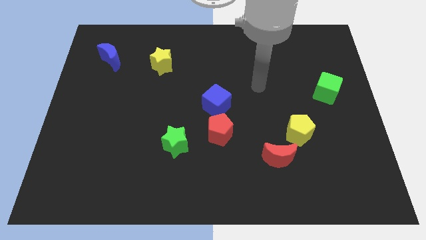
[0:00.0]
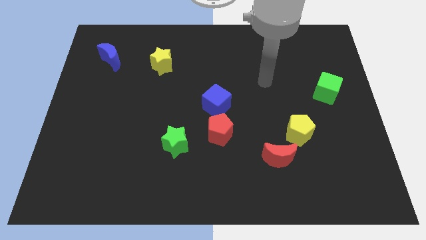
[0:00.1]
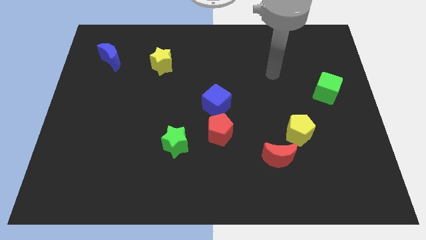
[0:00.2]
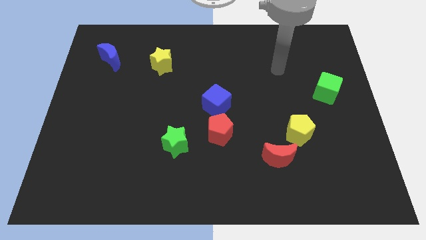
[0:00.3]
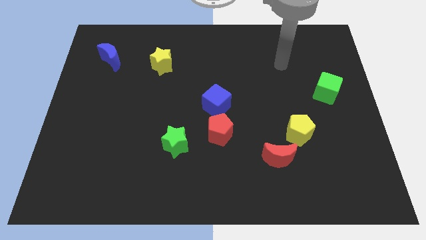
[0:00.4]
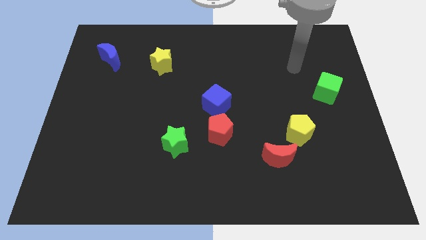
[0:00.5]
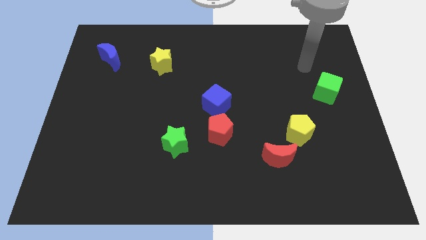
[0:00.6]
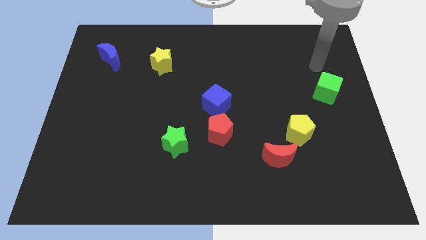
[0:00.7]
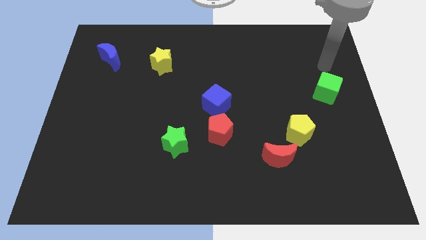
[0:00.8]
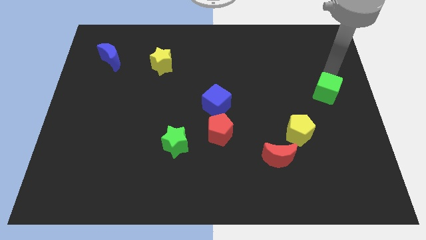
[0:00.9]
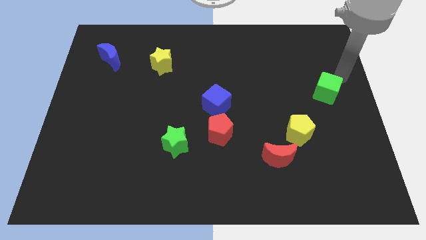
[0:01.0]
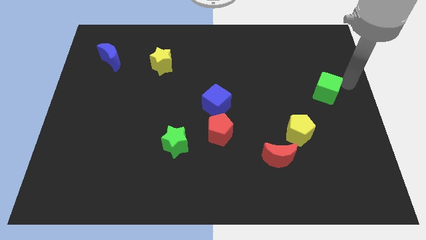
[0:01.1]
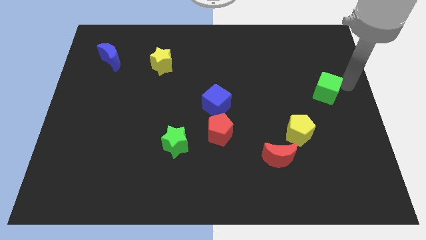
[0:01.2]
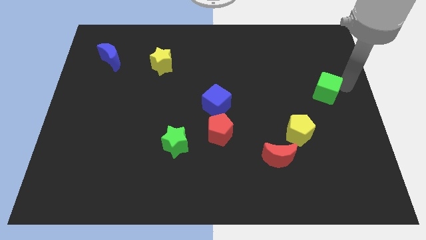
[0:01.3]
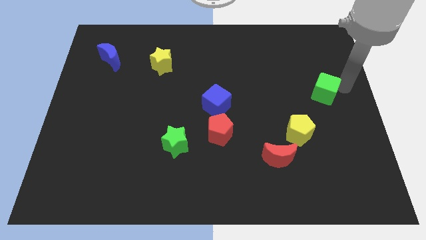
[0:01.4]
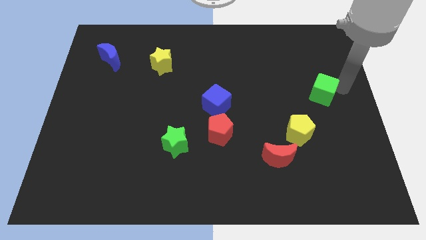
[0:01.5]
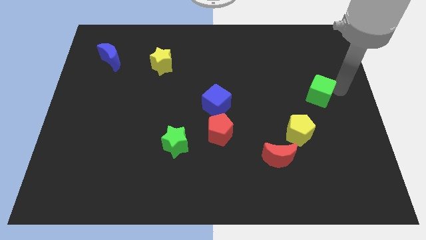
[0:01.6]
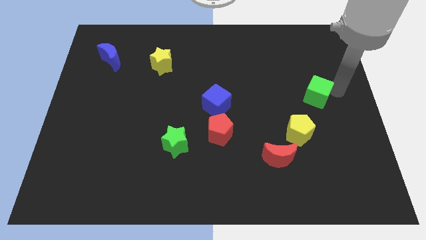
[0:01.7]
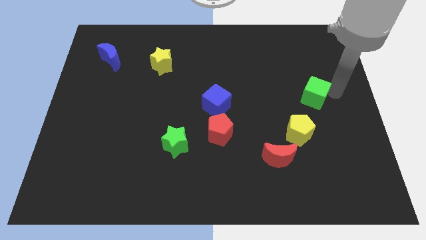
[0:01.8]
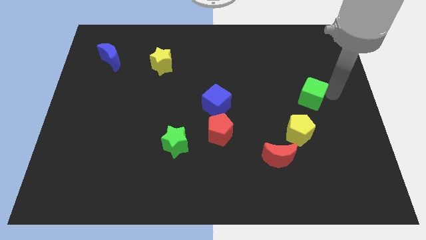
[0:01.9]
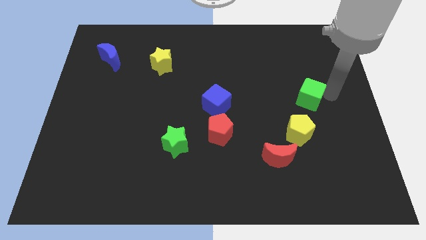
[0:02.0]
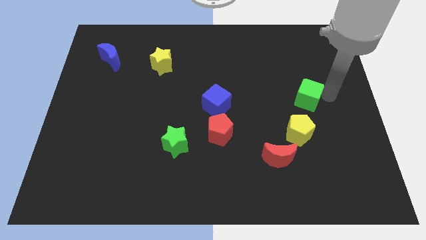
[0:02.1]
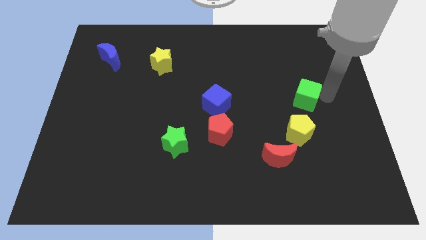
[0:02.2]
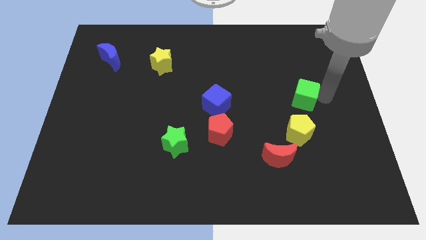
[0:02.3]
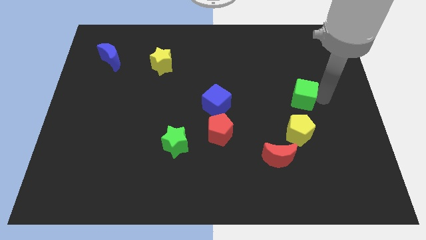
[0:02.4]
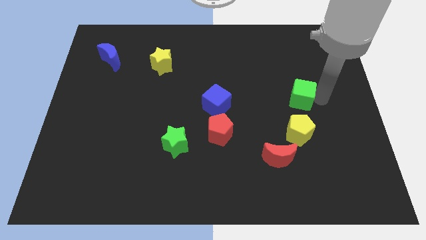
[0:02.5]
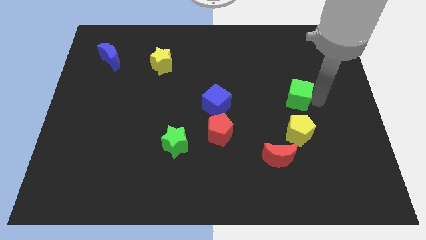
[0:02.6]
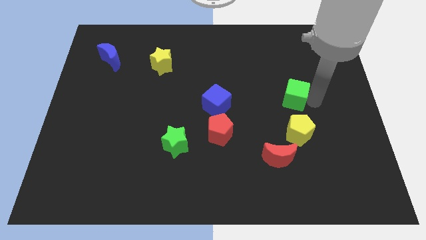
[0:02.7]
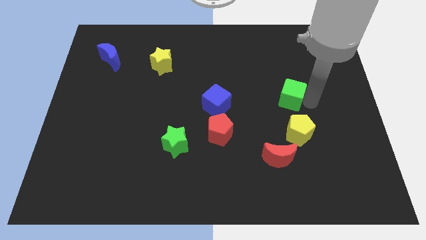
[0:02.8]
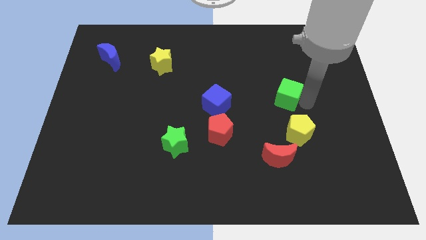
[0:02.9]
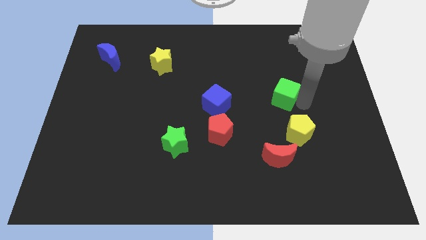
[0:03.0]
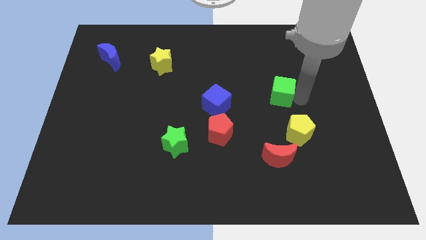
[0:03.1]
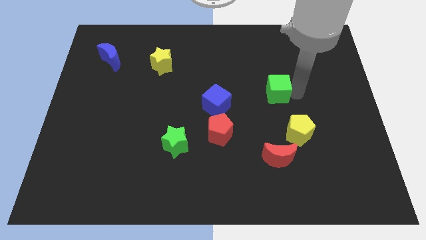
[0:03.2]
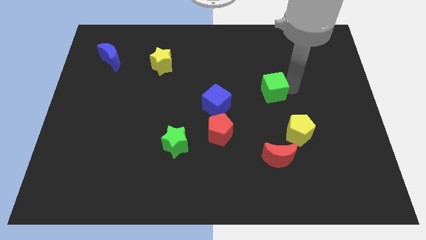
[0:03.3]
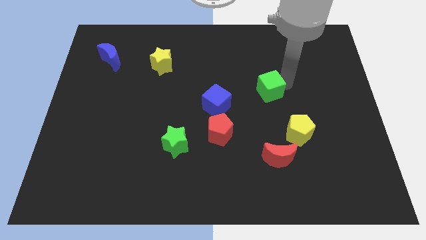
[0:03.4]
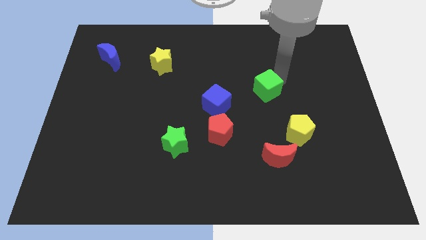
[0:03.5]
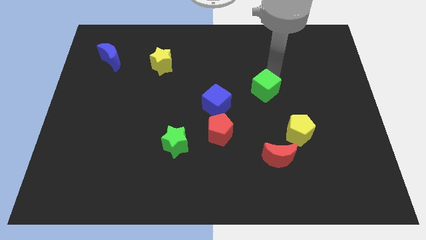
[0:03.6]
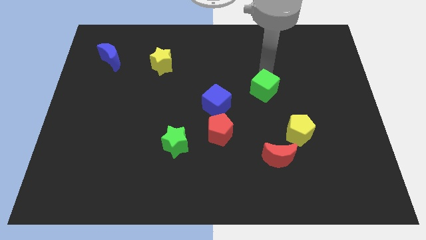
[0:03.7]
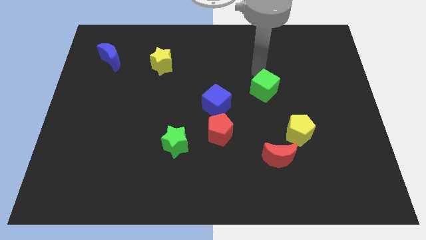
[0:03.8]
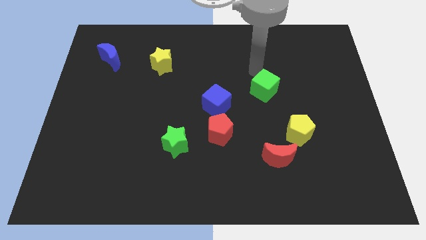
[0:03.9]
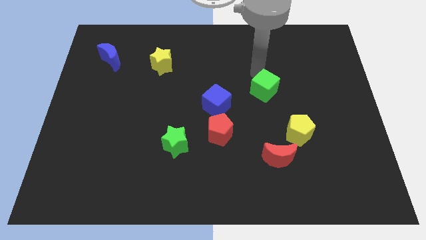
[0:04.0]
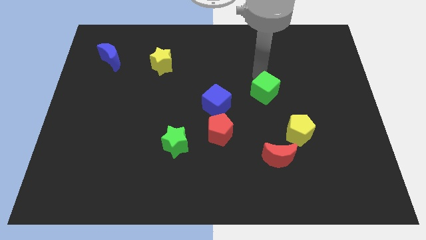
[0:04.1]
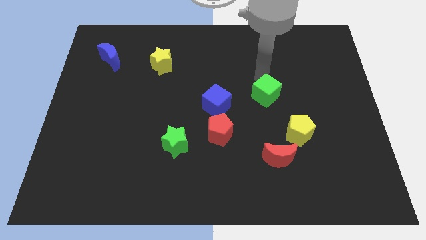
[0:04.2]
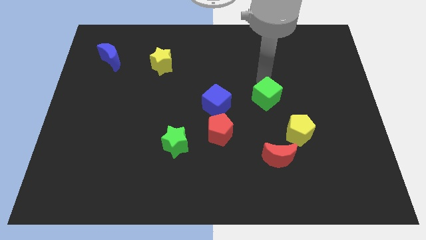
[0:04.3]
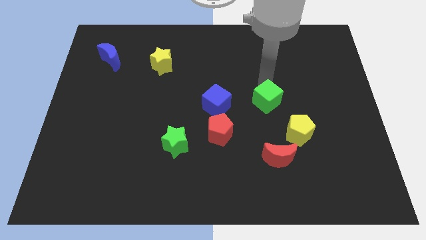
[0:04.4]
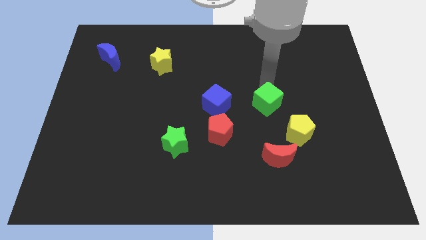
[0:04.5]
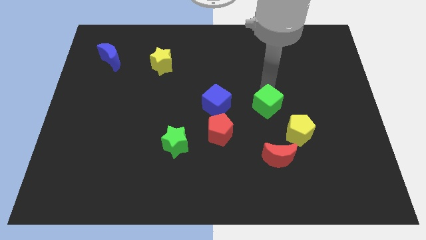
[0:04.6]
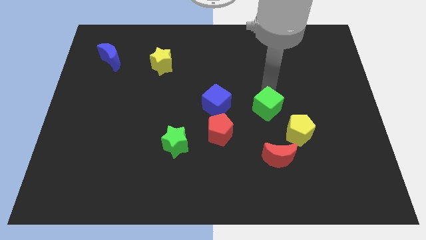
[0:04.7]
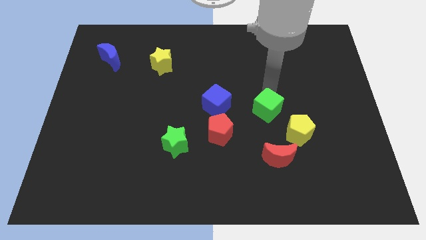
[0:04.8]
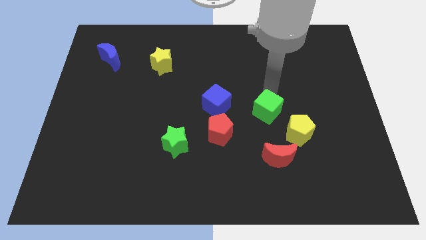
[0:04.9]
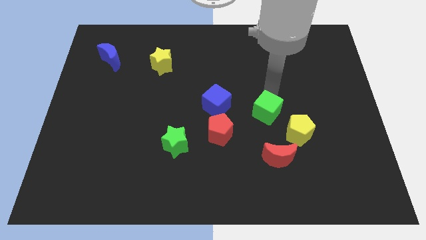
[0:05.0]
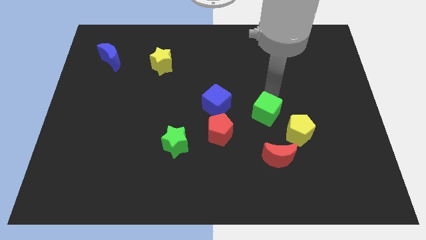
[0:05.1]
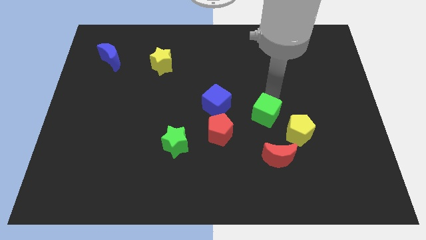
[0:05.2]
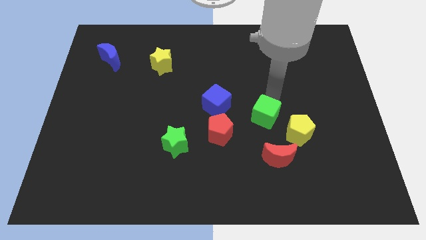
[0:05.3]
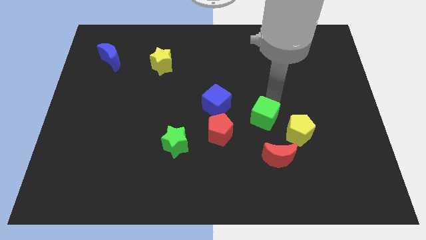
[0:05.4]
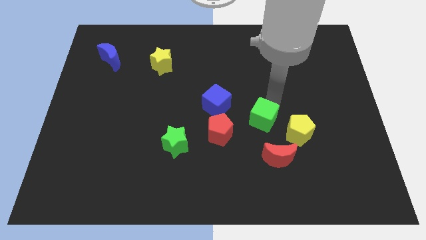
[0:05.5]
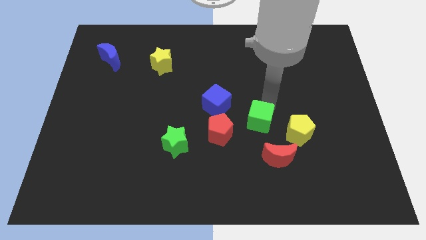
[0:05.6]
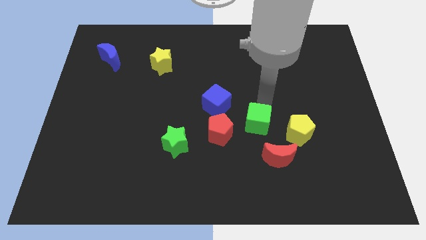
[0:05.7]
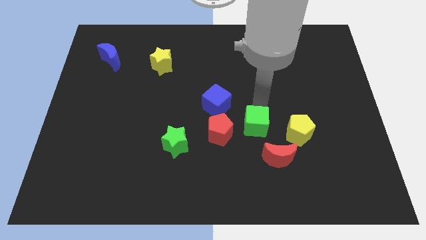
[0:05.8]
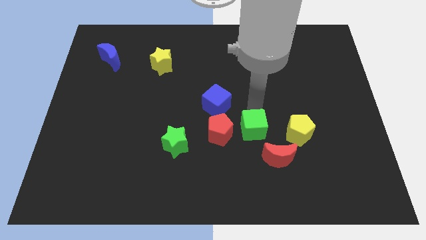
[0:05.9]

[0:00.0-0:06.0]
move the green cube diagonally down and left

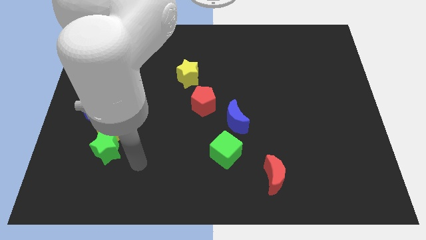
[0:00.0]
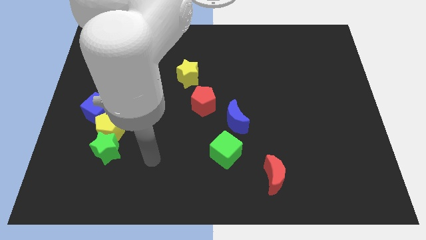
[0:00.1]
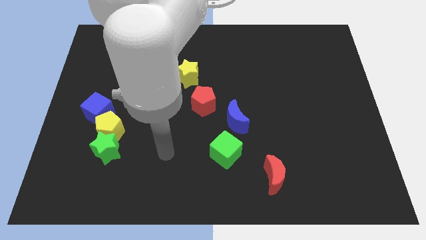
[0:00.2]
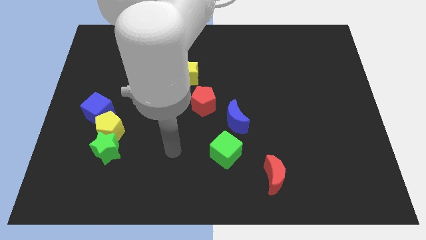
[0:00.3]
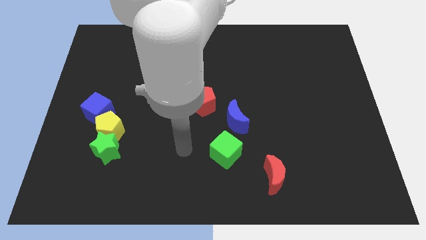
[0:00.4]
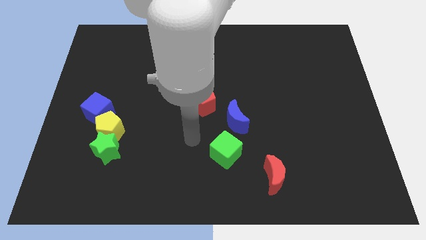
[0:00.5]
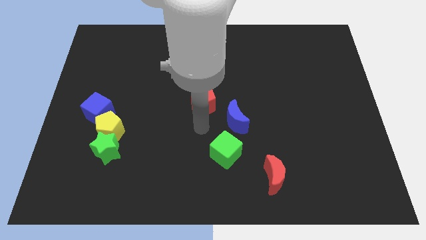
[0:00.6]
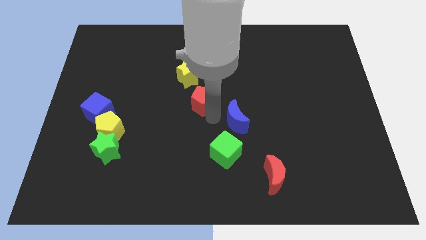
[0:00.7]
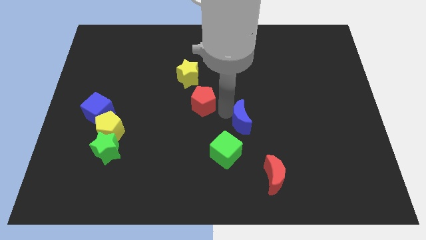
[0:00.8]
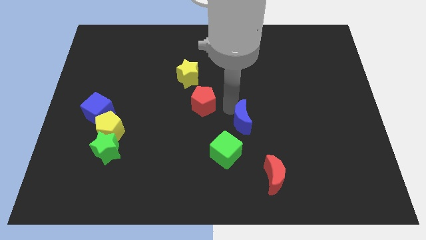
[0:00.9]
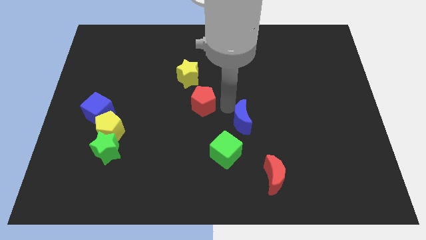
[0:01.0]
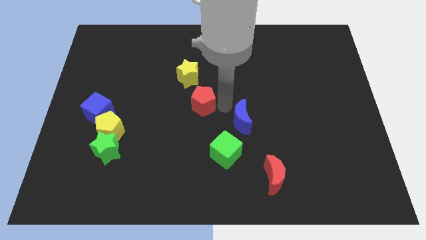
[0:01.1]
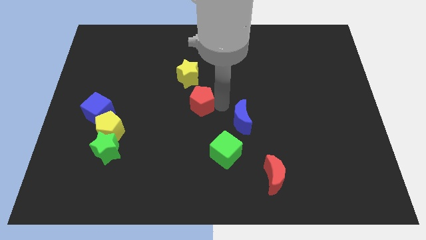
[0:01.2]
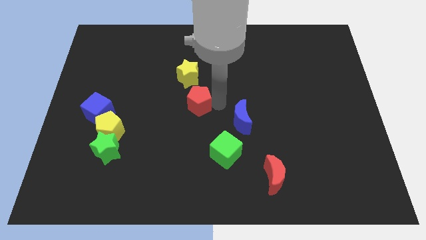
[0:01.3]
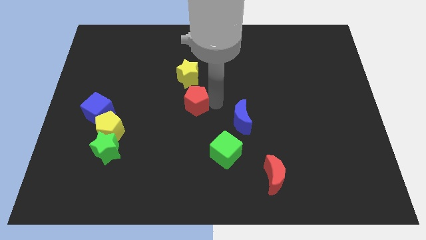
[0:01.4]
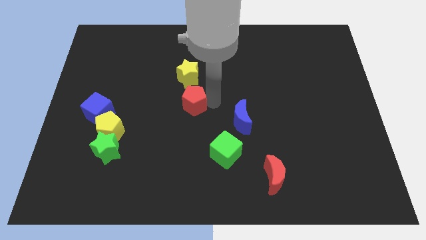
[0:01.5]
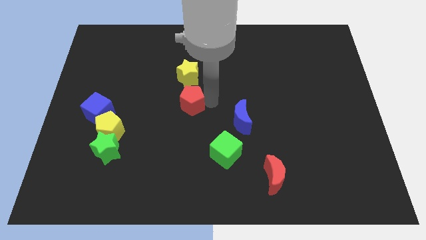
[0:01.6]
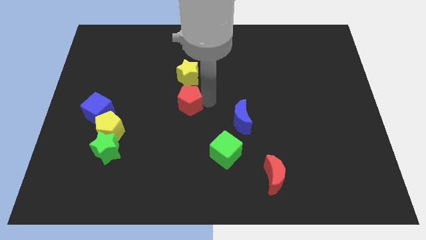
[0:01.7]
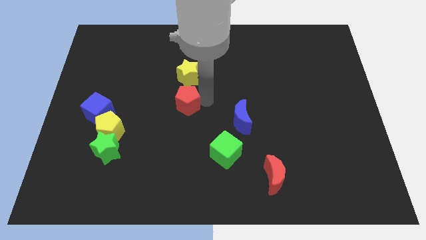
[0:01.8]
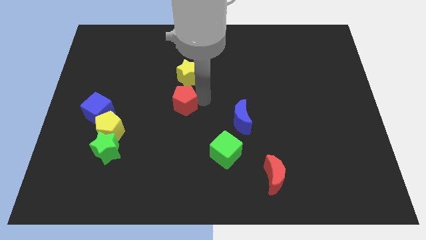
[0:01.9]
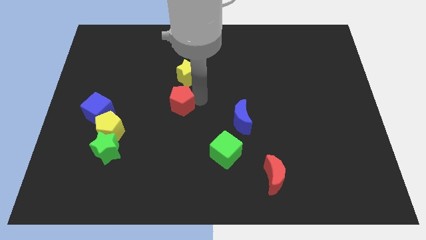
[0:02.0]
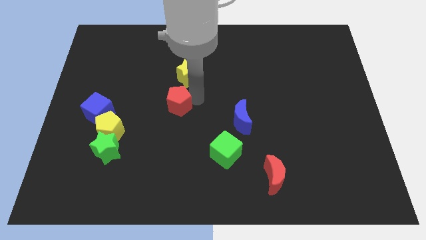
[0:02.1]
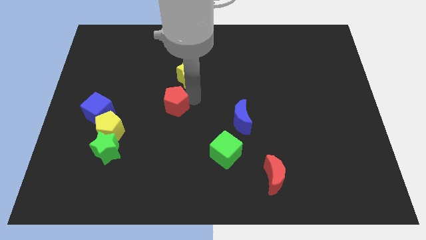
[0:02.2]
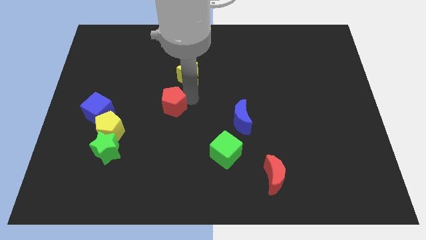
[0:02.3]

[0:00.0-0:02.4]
slightly slide the red pentagon to the left
